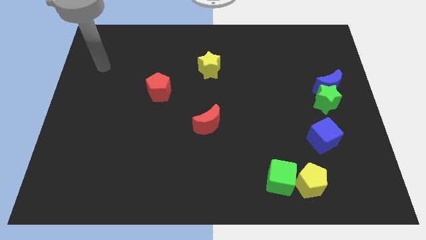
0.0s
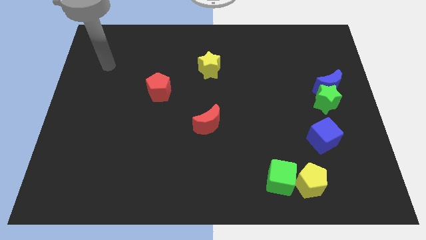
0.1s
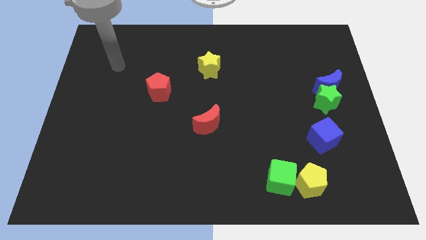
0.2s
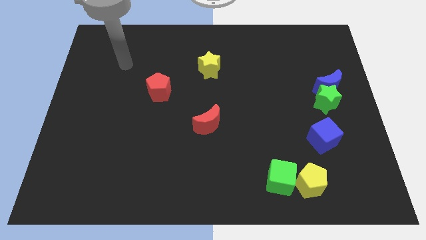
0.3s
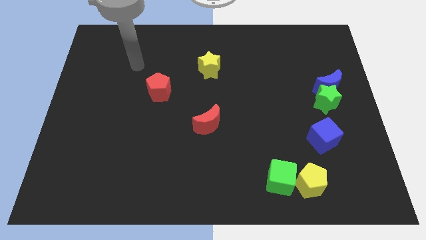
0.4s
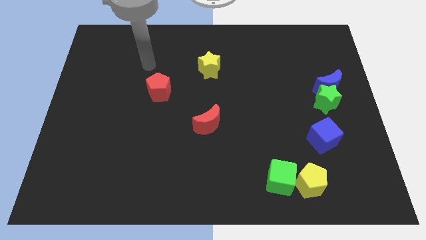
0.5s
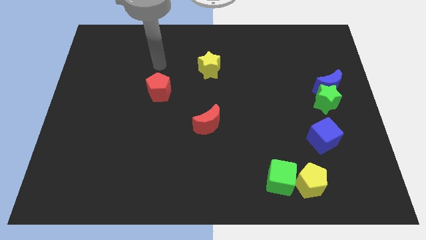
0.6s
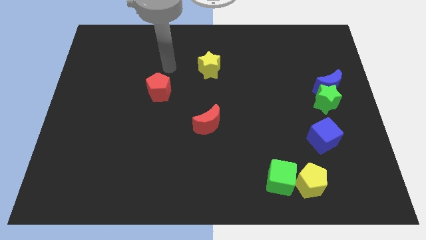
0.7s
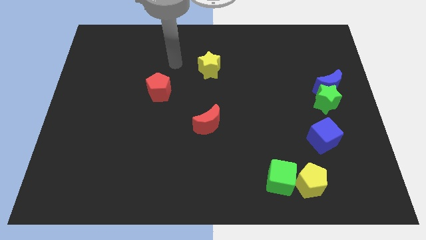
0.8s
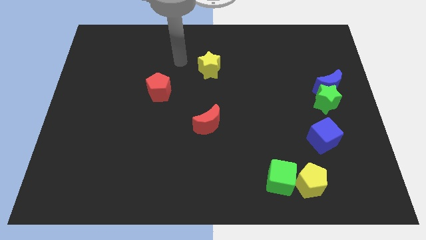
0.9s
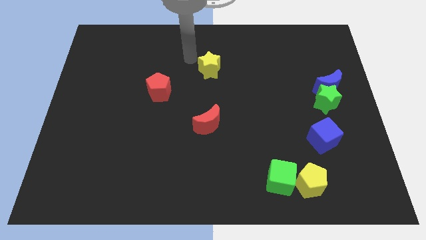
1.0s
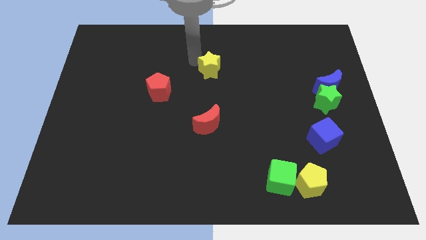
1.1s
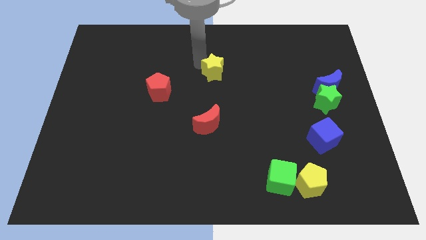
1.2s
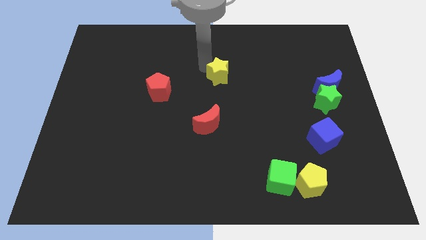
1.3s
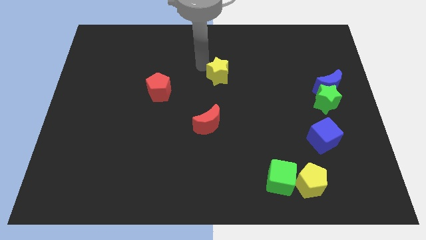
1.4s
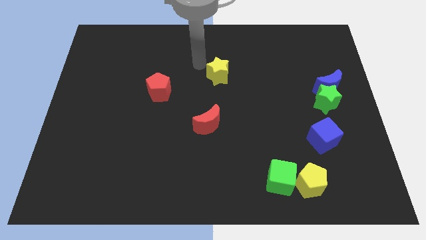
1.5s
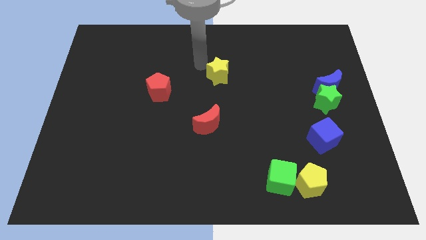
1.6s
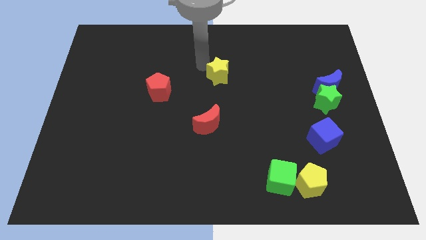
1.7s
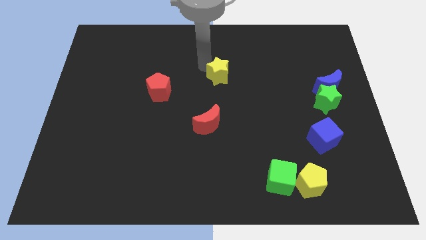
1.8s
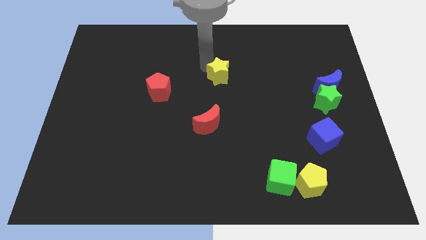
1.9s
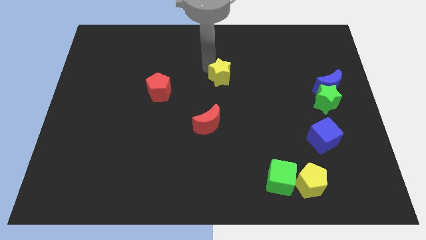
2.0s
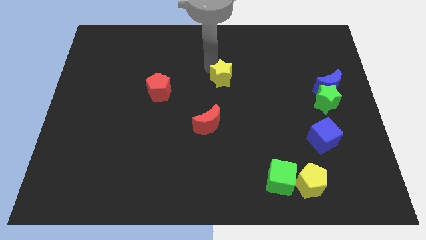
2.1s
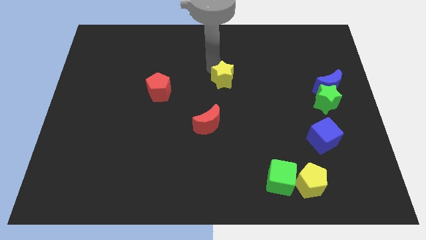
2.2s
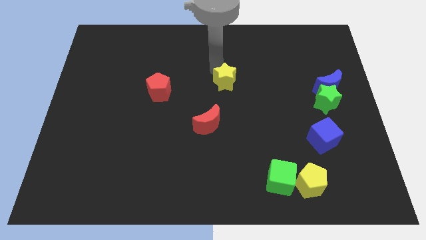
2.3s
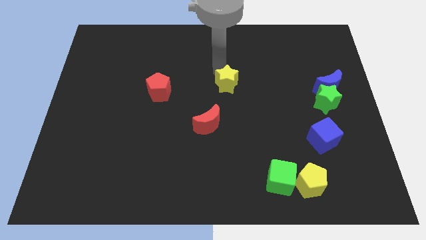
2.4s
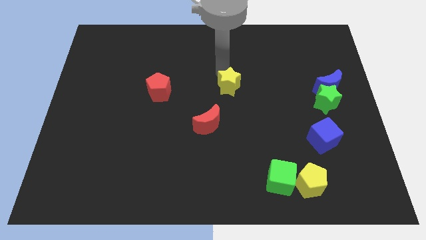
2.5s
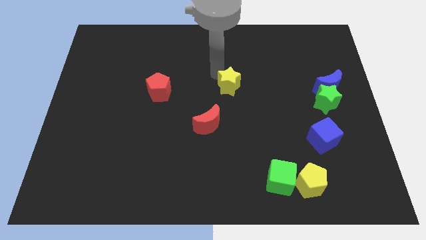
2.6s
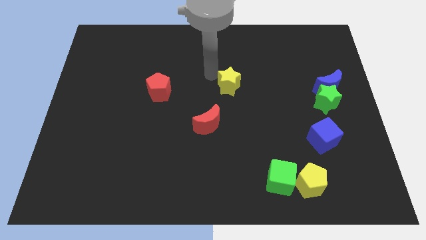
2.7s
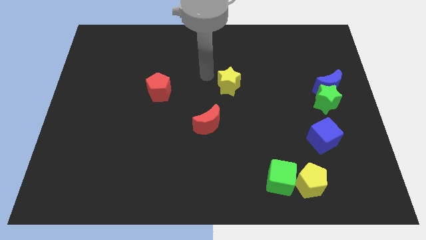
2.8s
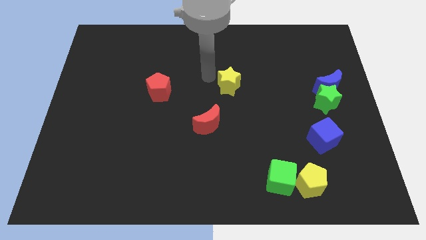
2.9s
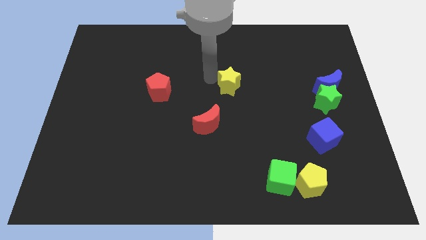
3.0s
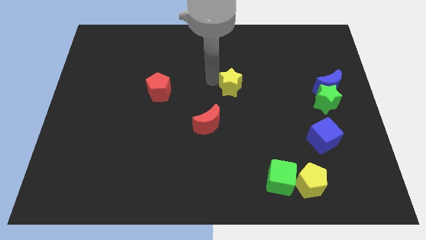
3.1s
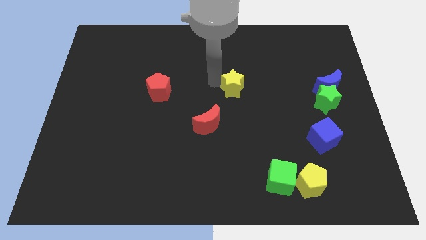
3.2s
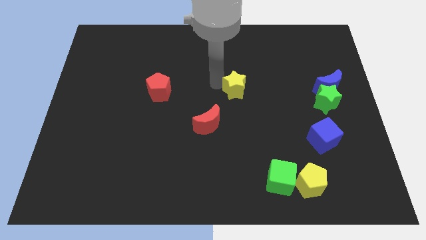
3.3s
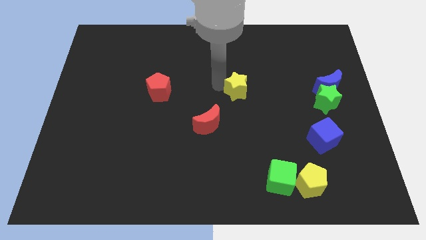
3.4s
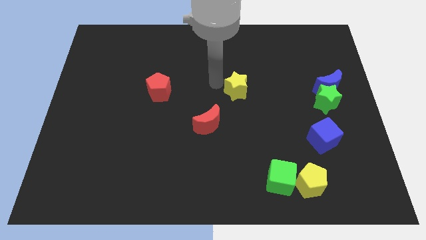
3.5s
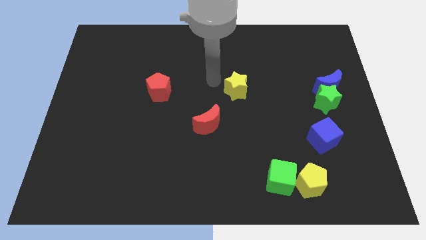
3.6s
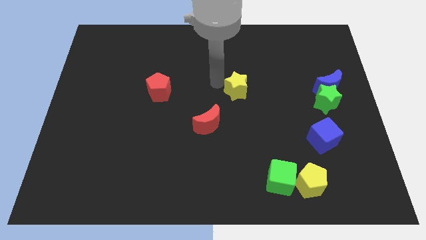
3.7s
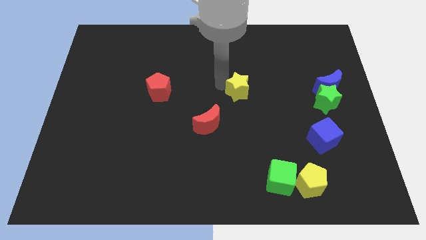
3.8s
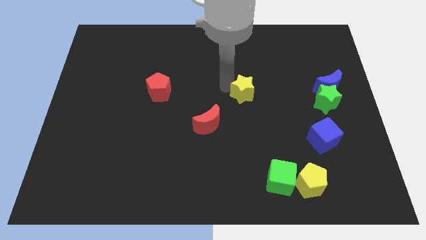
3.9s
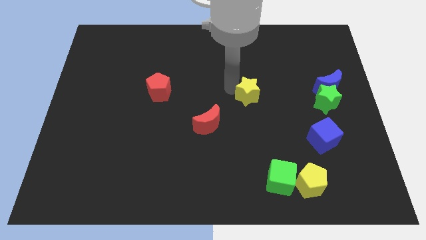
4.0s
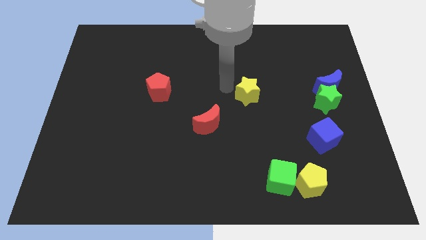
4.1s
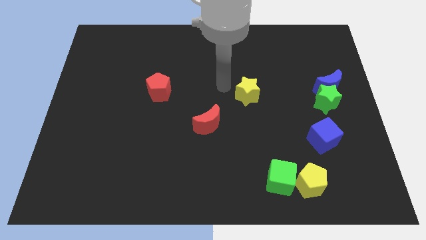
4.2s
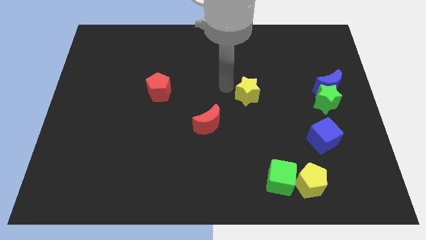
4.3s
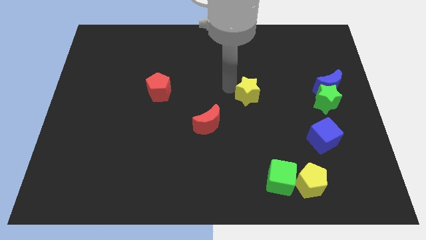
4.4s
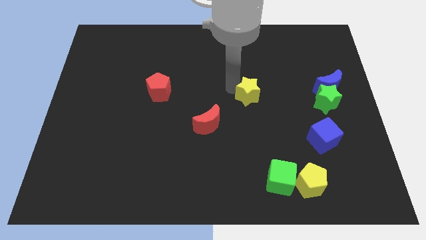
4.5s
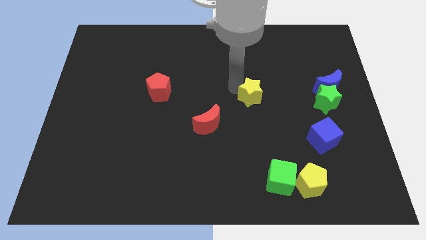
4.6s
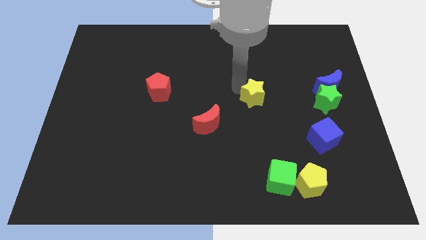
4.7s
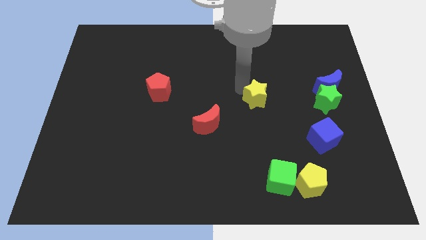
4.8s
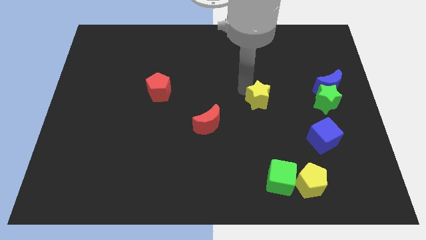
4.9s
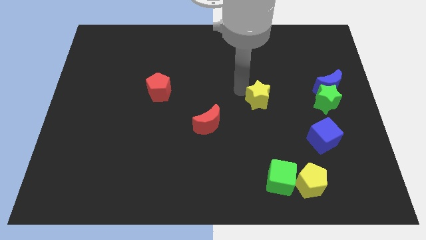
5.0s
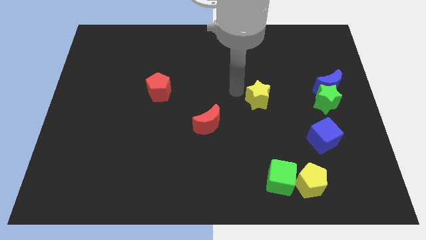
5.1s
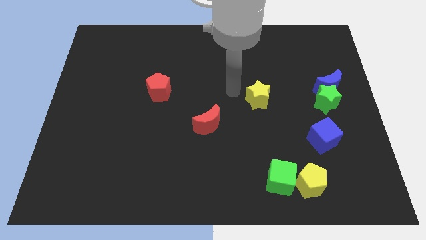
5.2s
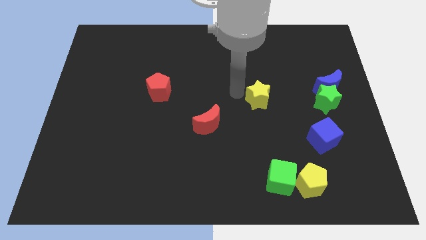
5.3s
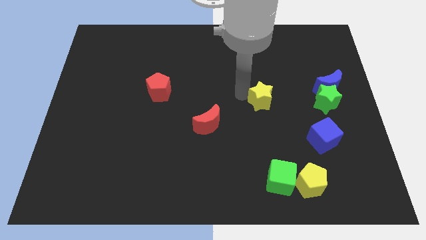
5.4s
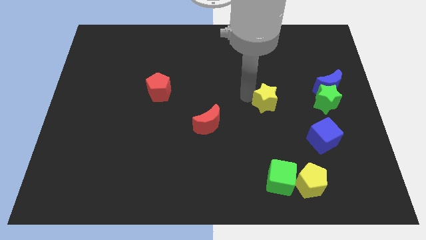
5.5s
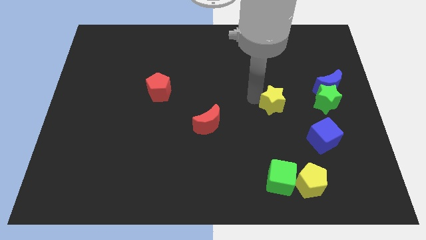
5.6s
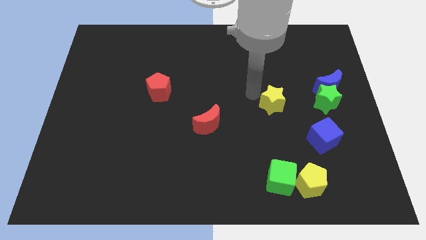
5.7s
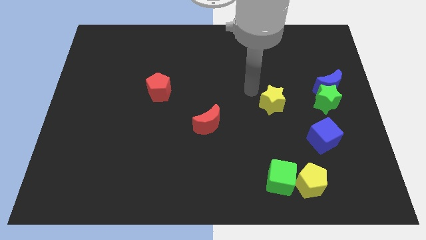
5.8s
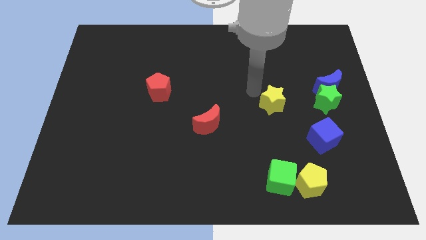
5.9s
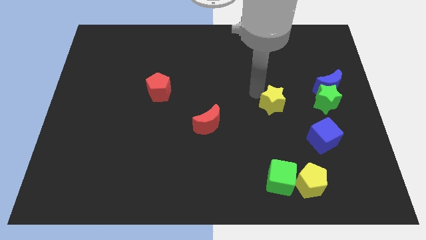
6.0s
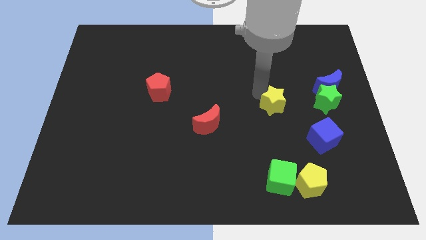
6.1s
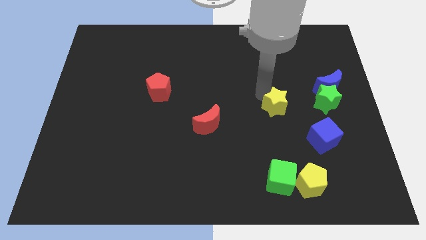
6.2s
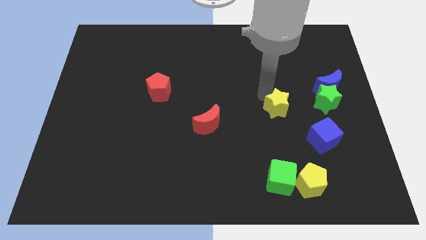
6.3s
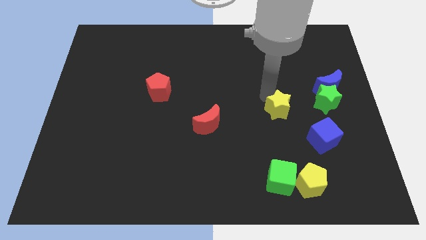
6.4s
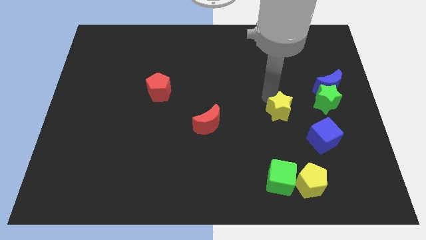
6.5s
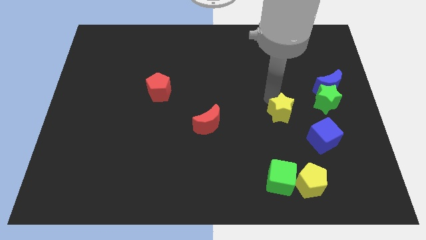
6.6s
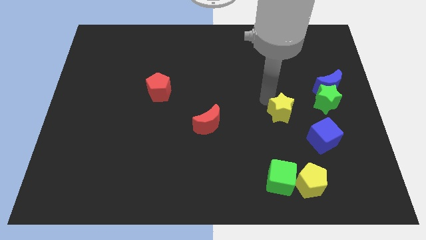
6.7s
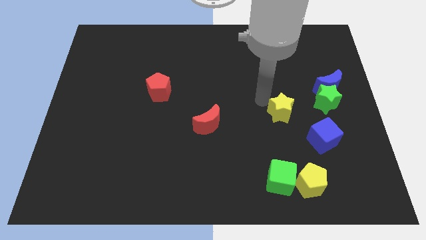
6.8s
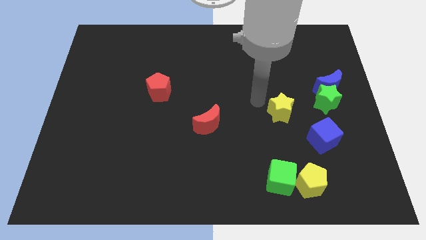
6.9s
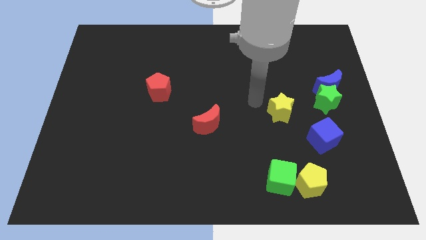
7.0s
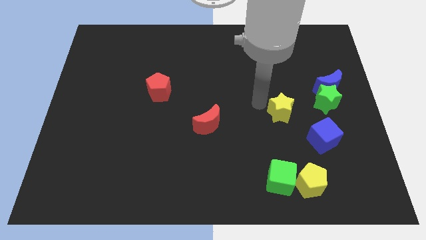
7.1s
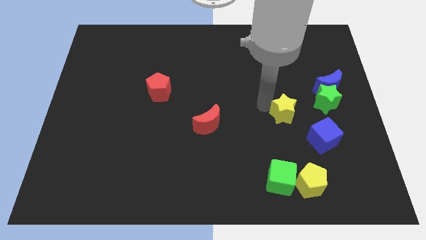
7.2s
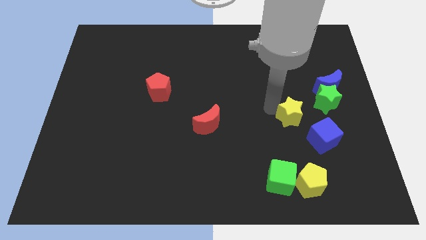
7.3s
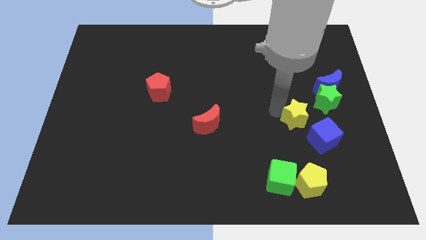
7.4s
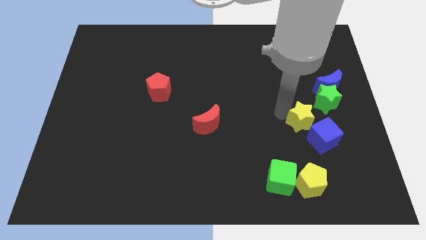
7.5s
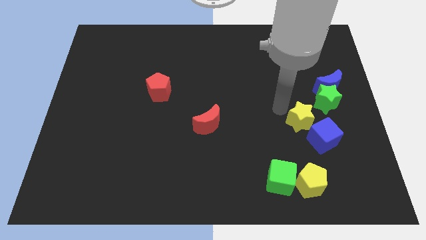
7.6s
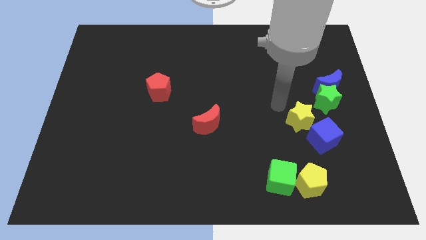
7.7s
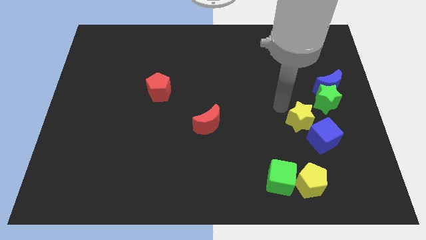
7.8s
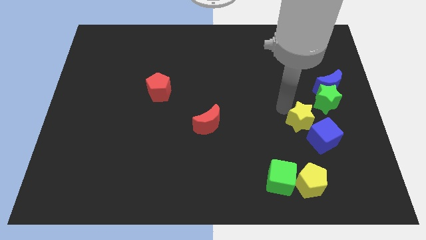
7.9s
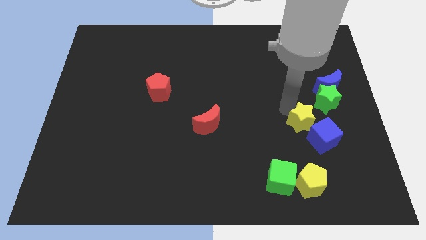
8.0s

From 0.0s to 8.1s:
push the yellow star to the blue cube
